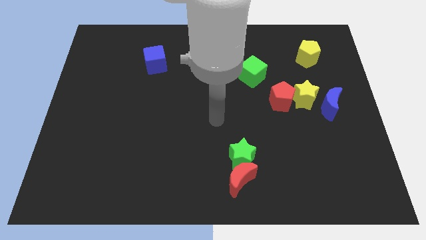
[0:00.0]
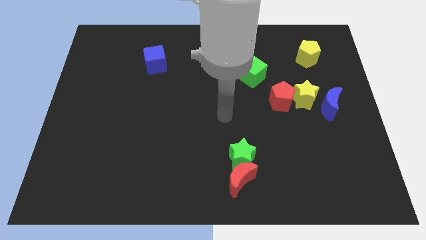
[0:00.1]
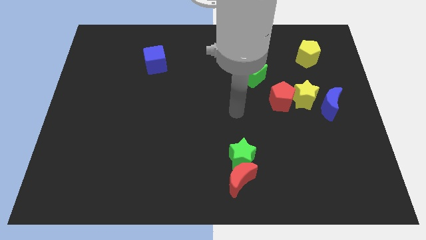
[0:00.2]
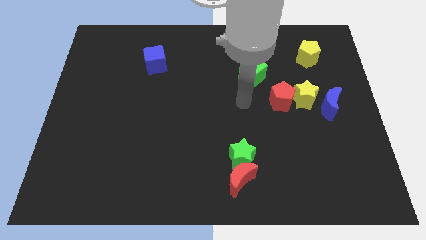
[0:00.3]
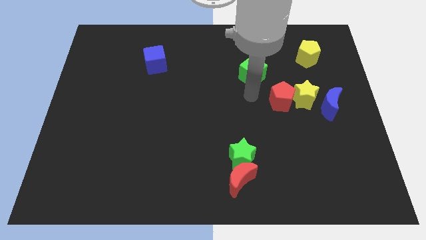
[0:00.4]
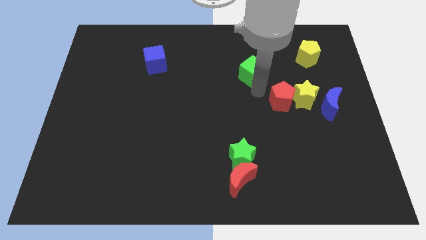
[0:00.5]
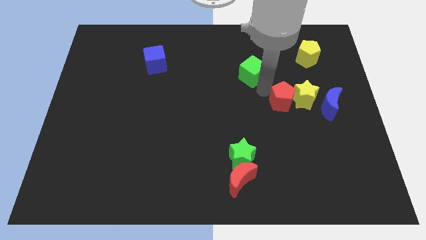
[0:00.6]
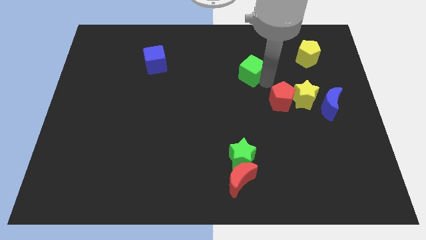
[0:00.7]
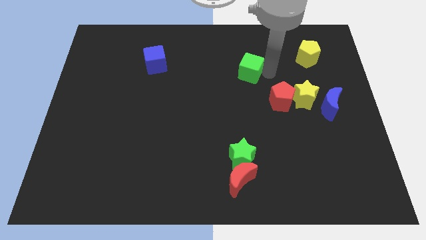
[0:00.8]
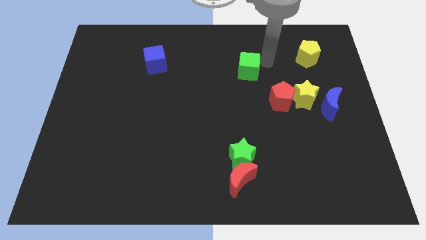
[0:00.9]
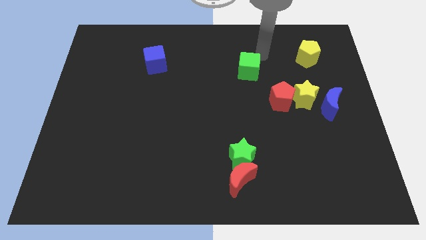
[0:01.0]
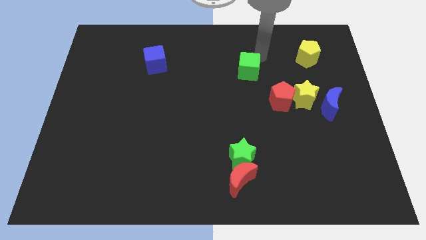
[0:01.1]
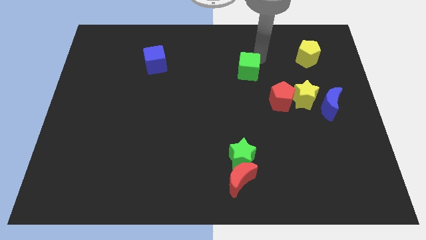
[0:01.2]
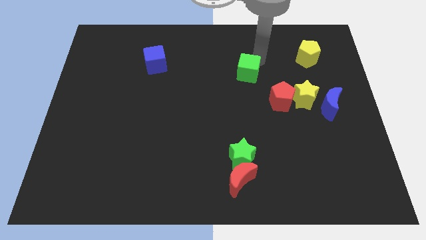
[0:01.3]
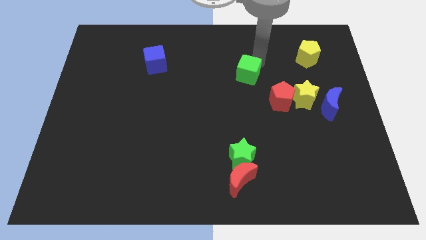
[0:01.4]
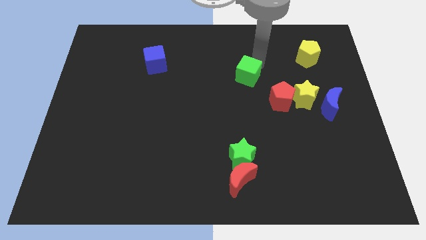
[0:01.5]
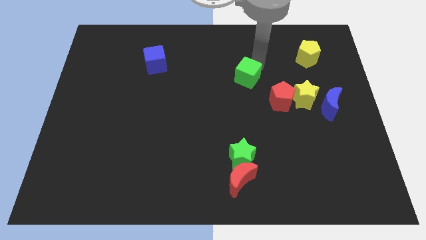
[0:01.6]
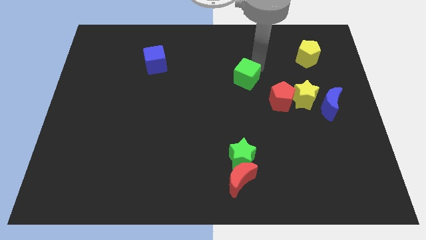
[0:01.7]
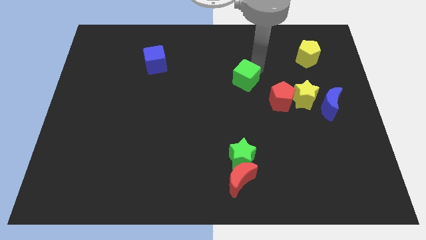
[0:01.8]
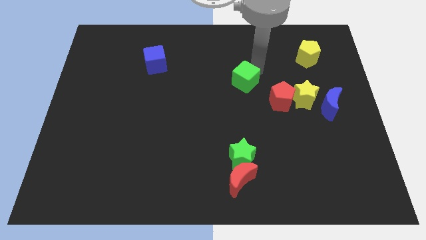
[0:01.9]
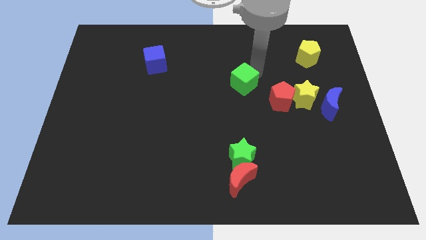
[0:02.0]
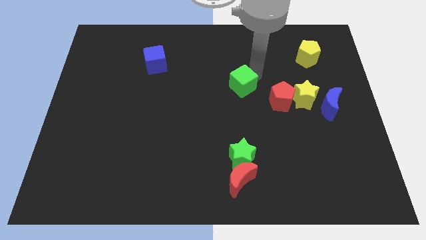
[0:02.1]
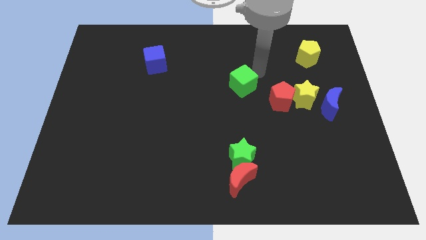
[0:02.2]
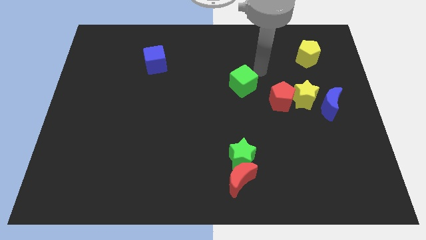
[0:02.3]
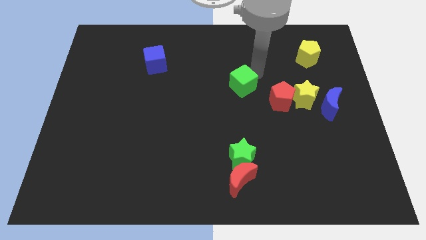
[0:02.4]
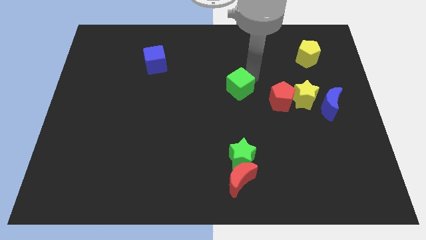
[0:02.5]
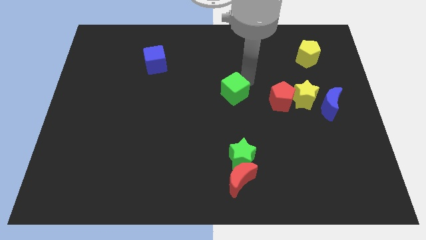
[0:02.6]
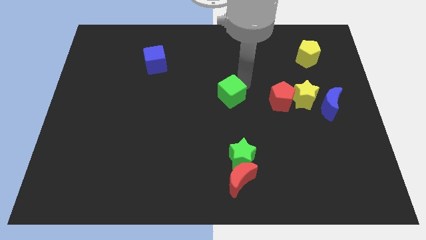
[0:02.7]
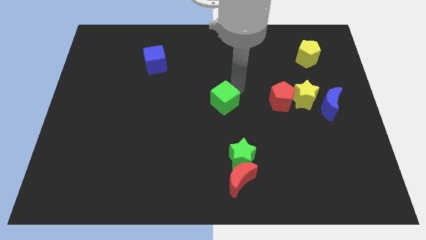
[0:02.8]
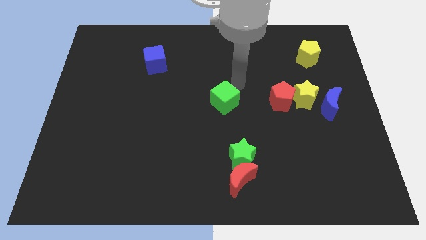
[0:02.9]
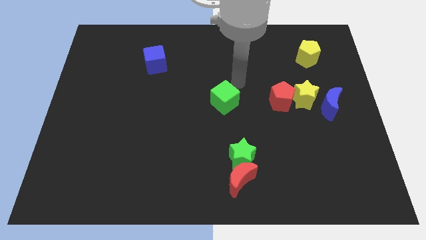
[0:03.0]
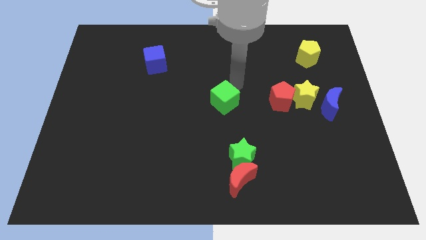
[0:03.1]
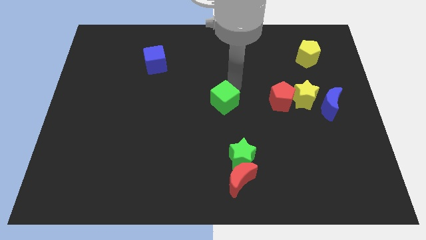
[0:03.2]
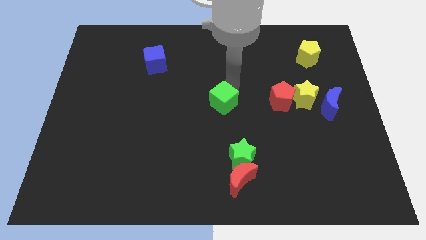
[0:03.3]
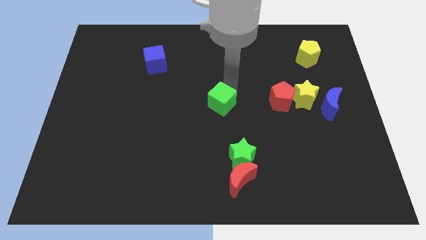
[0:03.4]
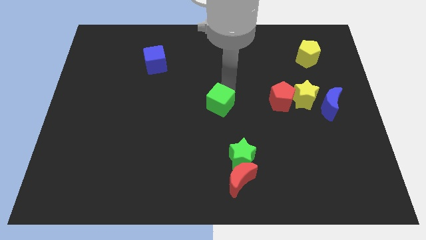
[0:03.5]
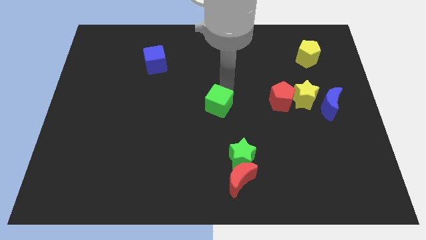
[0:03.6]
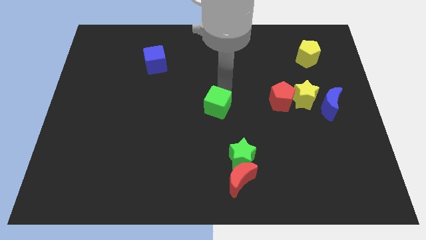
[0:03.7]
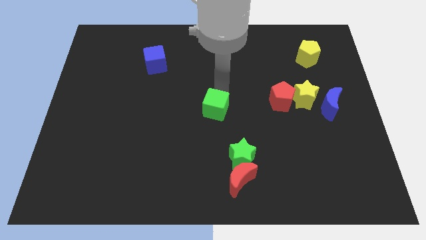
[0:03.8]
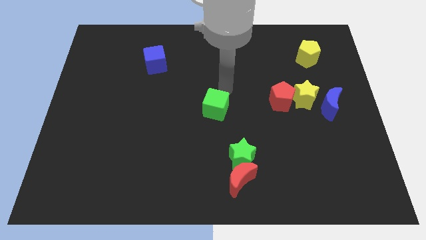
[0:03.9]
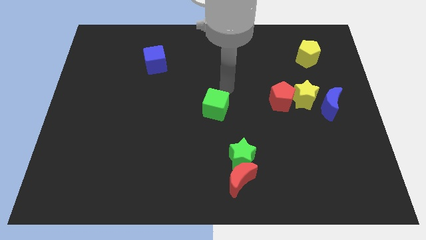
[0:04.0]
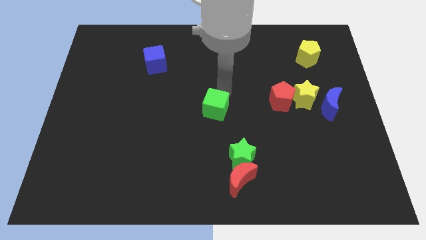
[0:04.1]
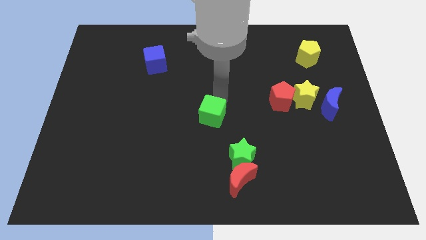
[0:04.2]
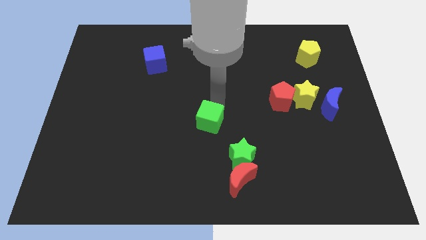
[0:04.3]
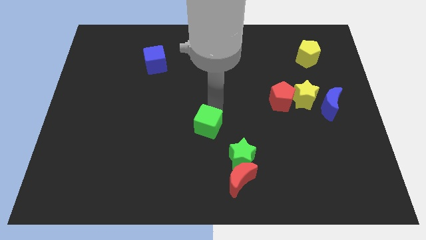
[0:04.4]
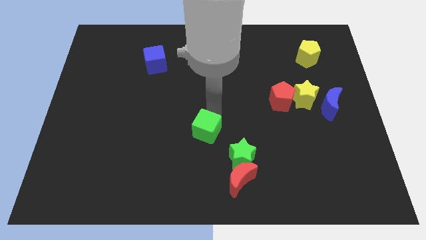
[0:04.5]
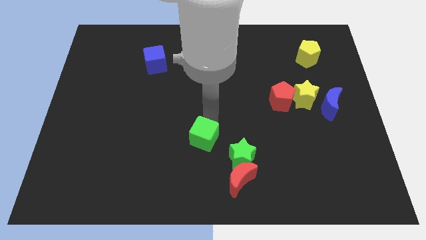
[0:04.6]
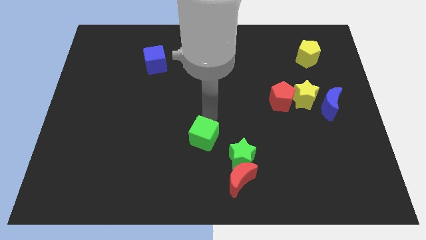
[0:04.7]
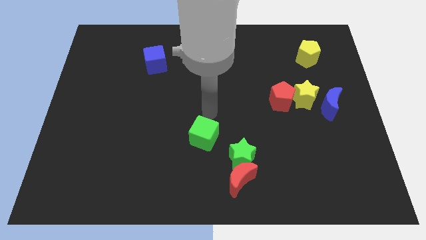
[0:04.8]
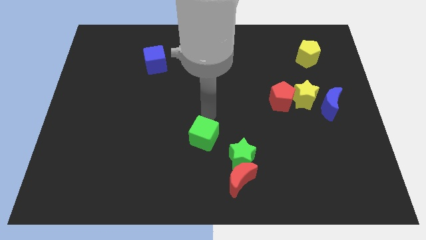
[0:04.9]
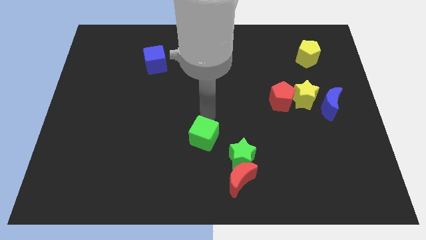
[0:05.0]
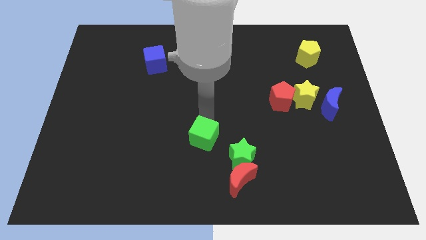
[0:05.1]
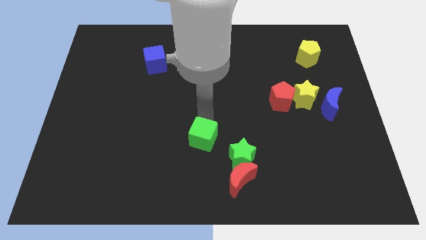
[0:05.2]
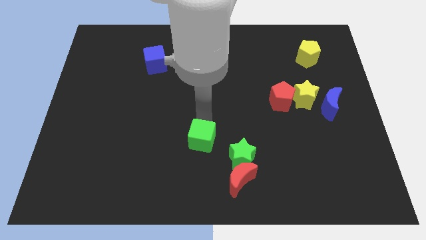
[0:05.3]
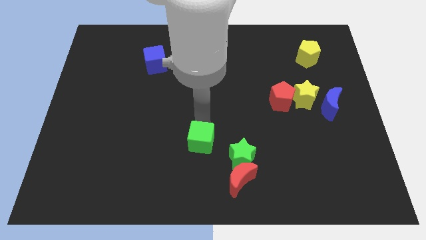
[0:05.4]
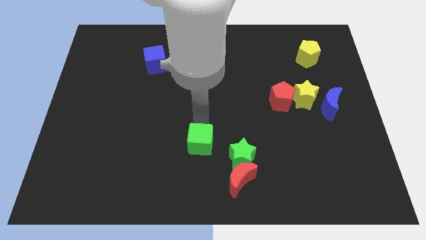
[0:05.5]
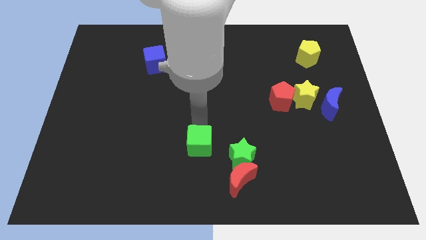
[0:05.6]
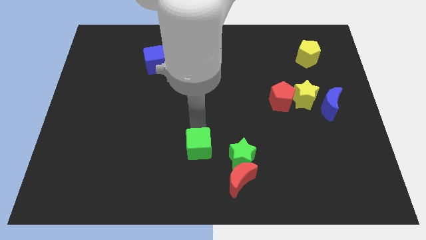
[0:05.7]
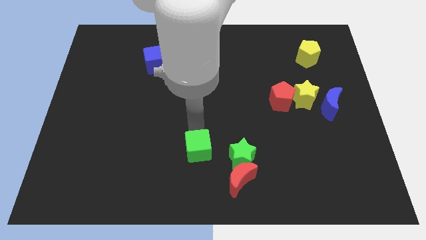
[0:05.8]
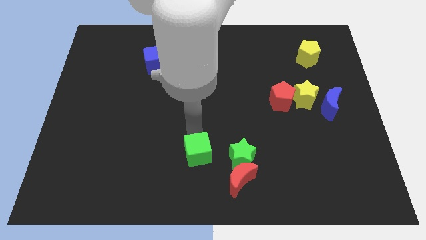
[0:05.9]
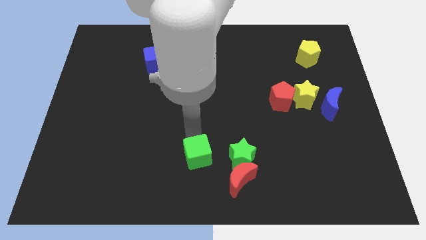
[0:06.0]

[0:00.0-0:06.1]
move the green cube to the bottom side
